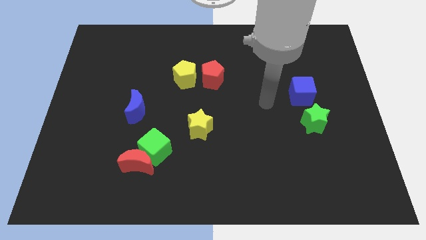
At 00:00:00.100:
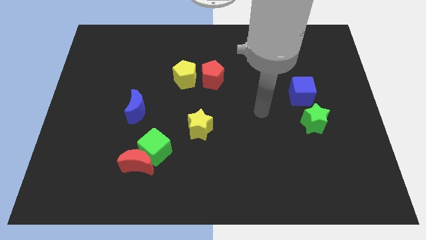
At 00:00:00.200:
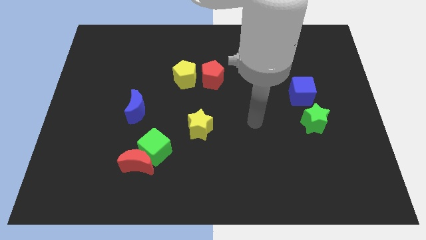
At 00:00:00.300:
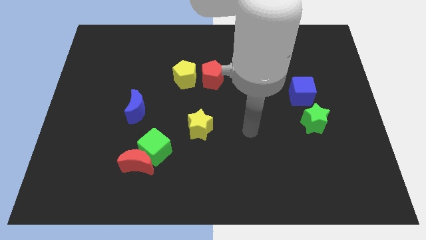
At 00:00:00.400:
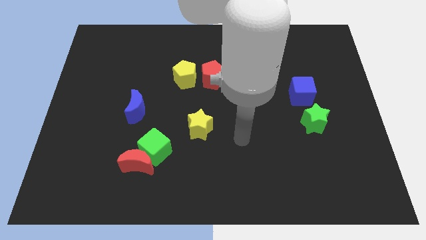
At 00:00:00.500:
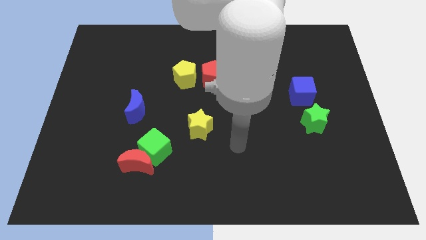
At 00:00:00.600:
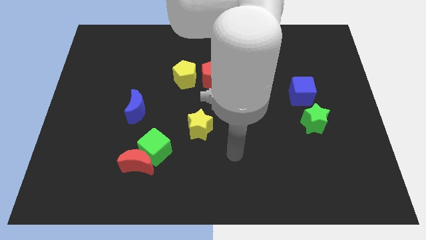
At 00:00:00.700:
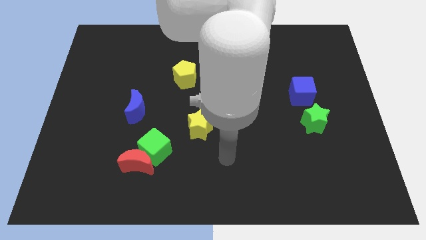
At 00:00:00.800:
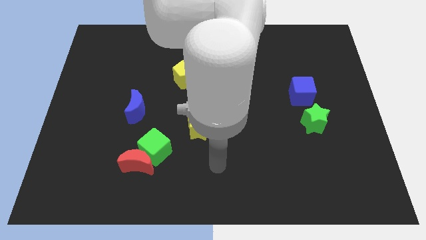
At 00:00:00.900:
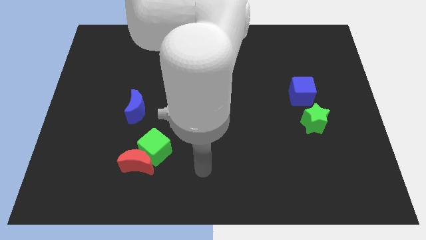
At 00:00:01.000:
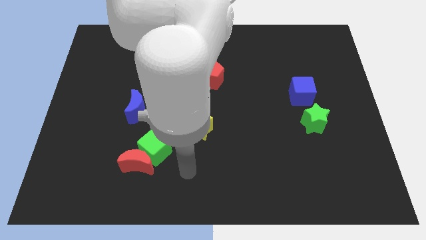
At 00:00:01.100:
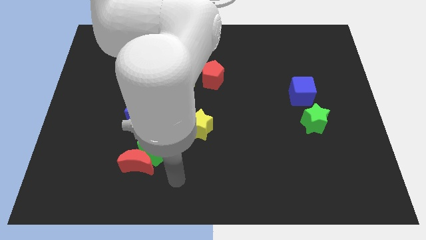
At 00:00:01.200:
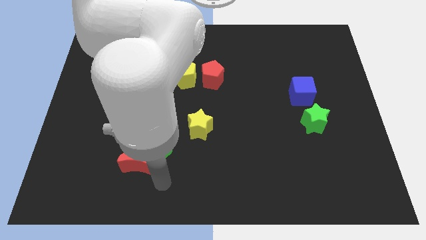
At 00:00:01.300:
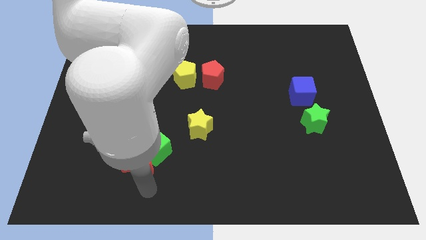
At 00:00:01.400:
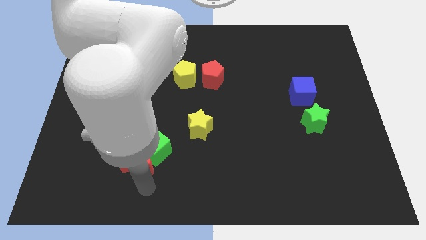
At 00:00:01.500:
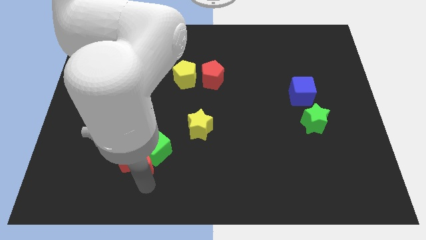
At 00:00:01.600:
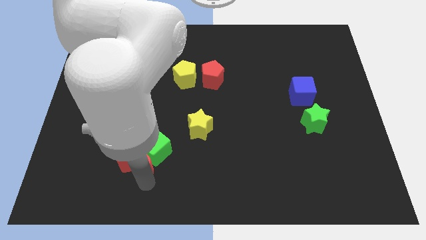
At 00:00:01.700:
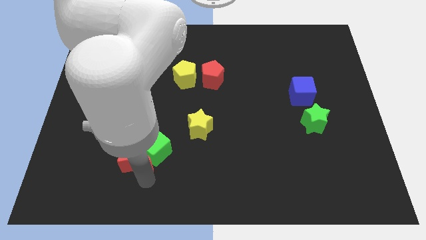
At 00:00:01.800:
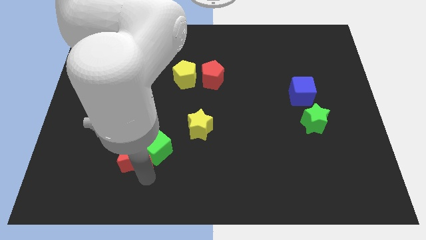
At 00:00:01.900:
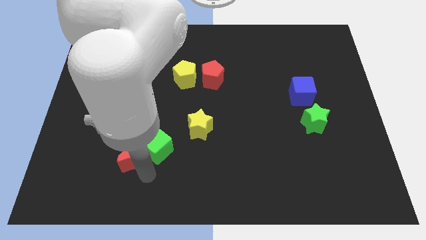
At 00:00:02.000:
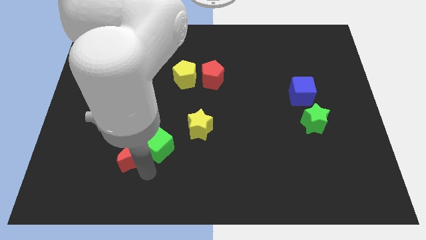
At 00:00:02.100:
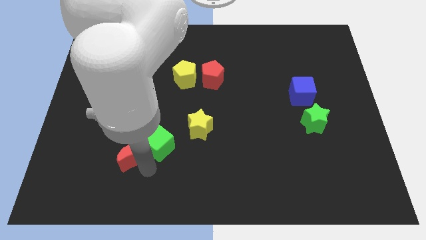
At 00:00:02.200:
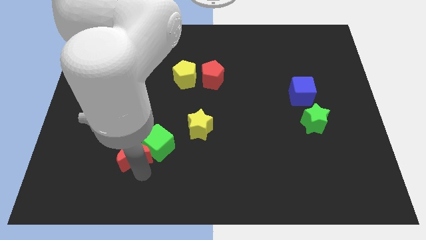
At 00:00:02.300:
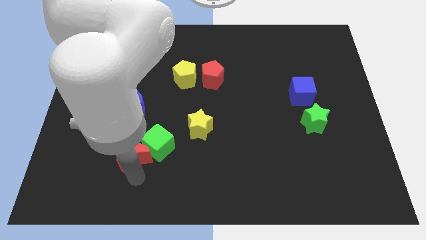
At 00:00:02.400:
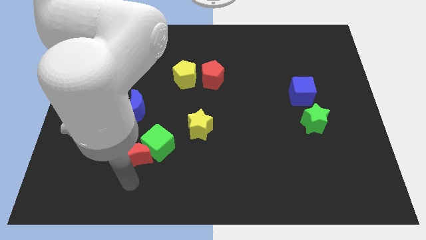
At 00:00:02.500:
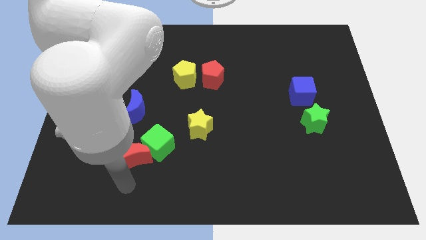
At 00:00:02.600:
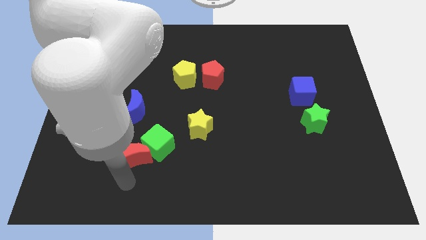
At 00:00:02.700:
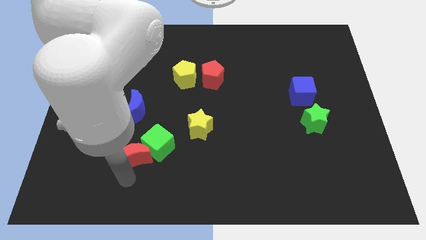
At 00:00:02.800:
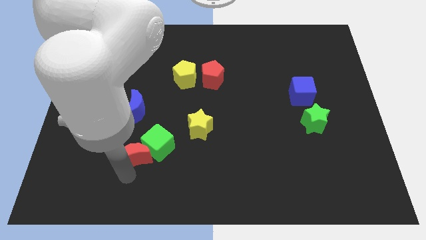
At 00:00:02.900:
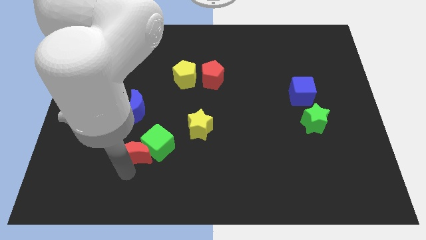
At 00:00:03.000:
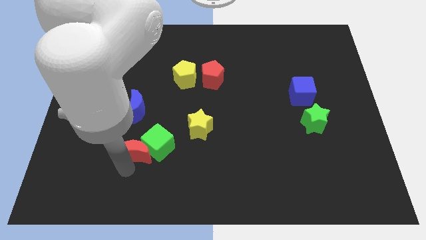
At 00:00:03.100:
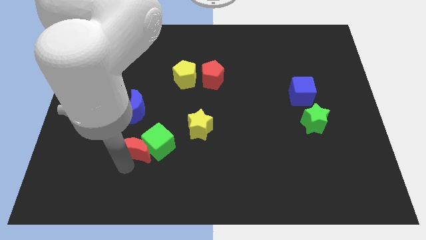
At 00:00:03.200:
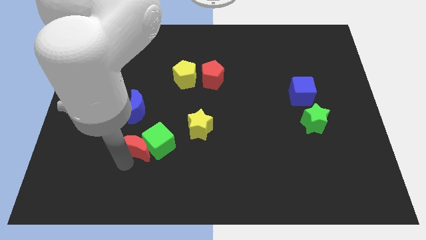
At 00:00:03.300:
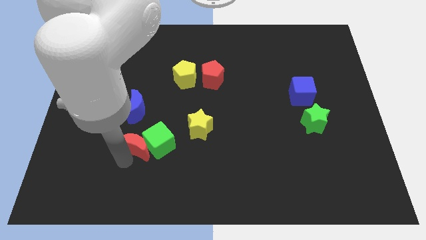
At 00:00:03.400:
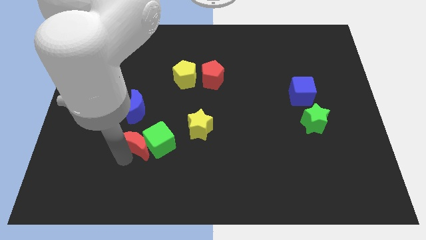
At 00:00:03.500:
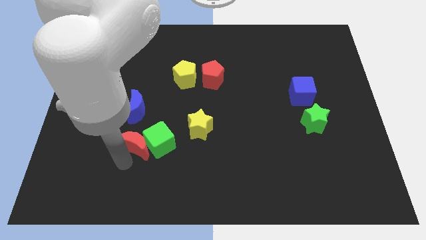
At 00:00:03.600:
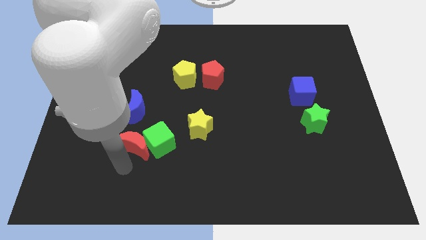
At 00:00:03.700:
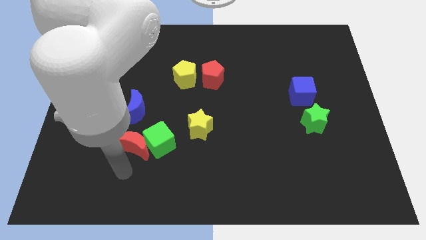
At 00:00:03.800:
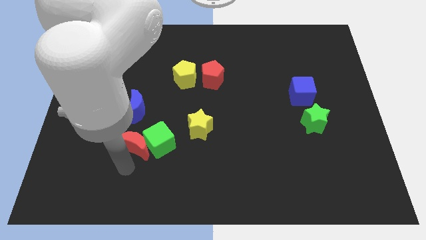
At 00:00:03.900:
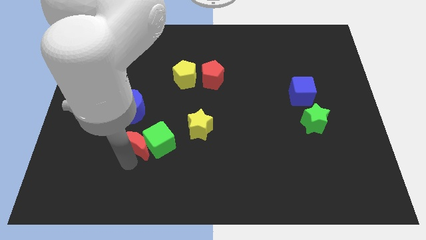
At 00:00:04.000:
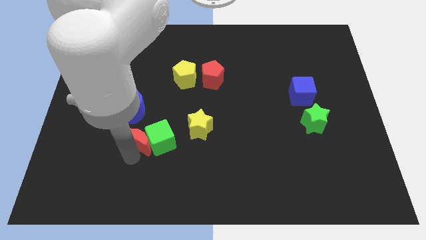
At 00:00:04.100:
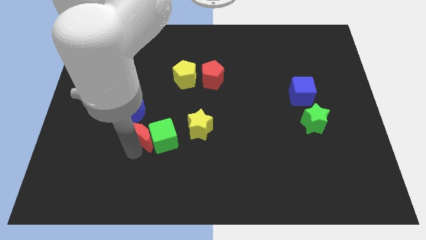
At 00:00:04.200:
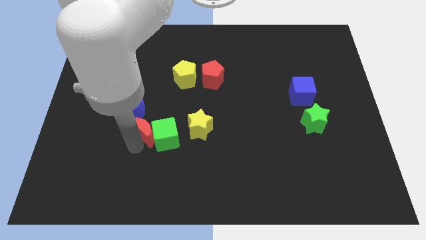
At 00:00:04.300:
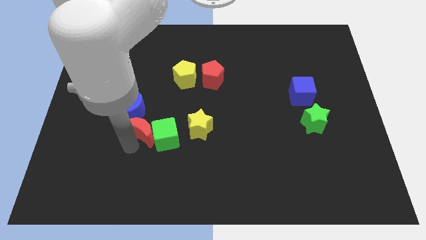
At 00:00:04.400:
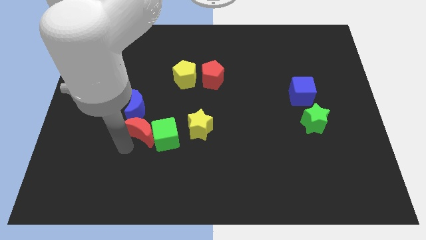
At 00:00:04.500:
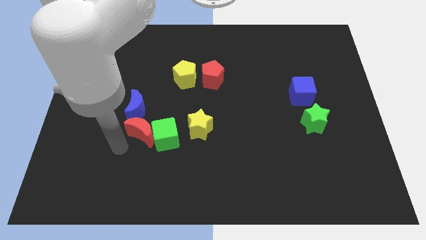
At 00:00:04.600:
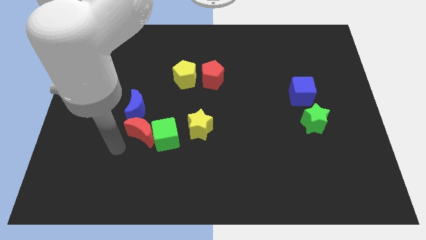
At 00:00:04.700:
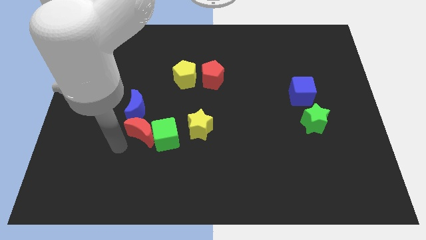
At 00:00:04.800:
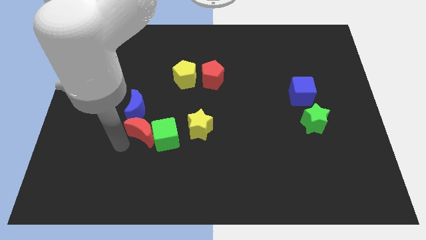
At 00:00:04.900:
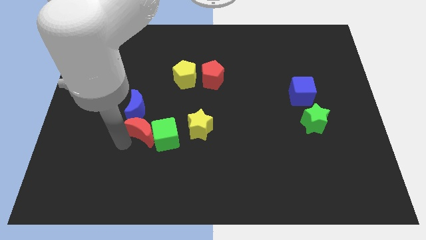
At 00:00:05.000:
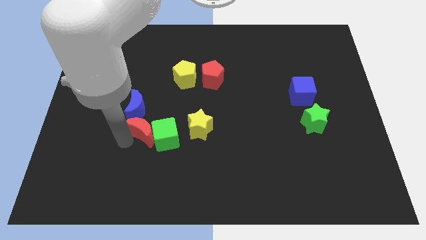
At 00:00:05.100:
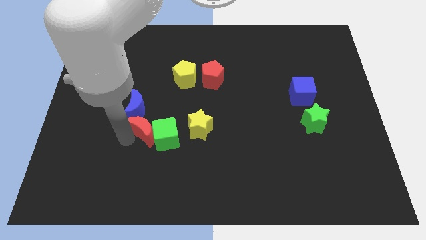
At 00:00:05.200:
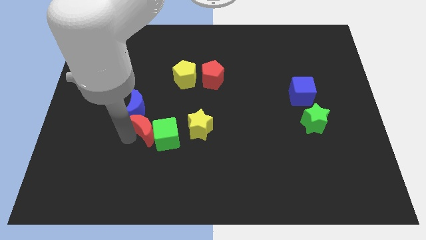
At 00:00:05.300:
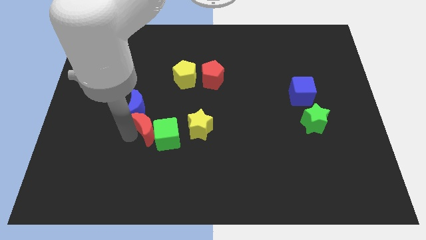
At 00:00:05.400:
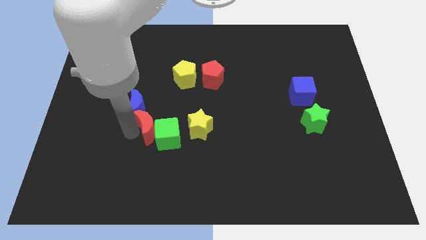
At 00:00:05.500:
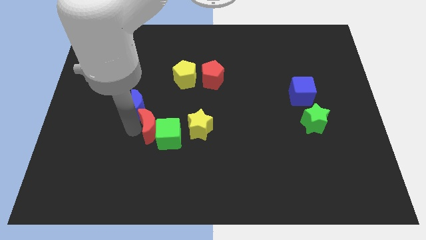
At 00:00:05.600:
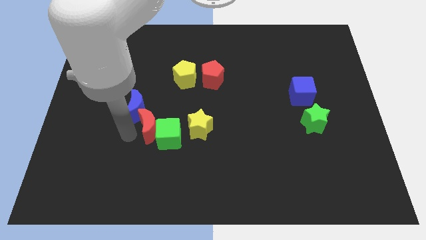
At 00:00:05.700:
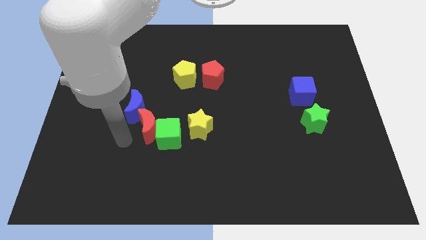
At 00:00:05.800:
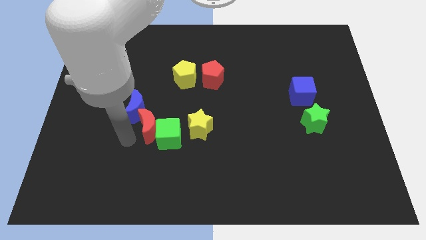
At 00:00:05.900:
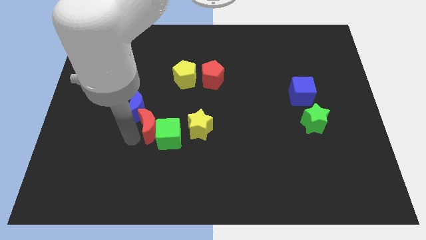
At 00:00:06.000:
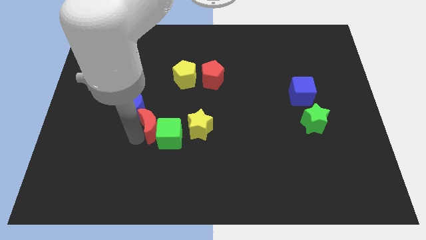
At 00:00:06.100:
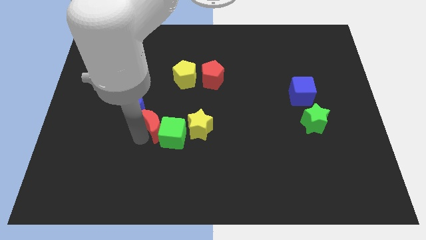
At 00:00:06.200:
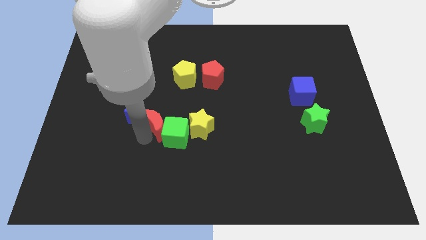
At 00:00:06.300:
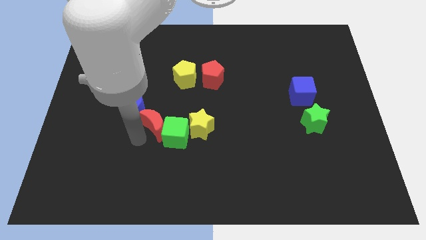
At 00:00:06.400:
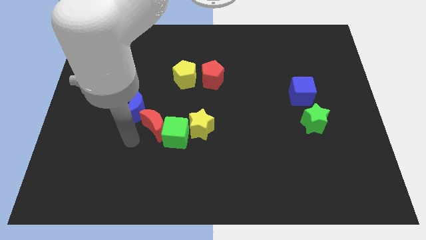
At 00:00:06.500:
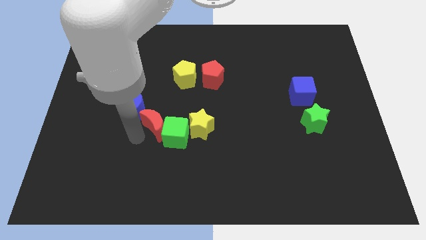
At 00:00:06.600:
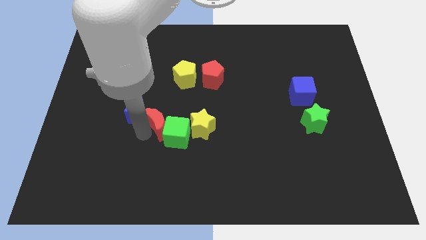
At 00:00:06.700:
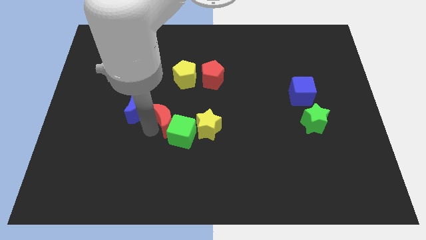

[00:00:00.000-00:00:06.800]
put the red moon below the yellow pentagon

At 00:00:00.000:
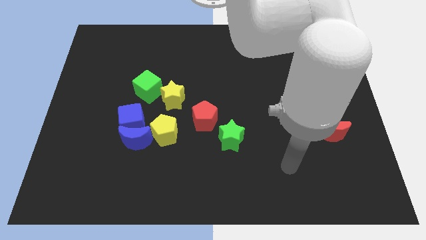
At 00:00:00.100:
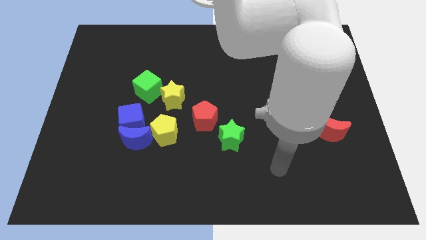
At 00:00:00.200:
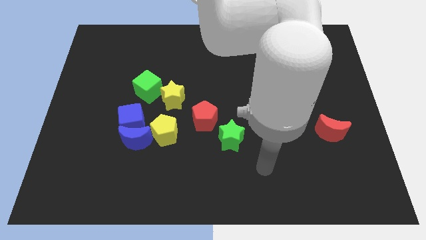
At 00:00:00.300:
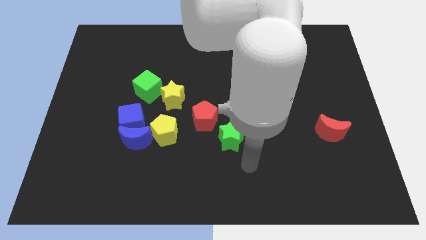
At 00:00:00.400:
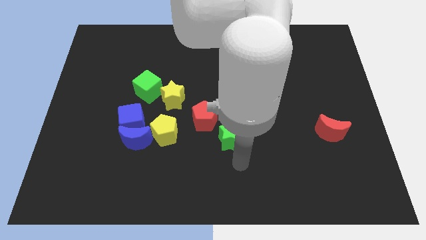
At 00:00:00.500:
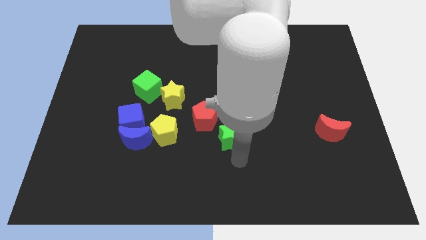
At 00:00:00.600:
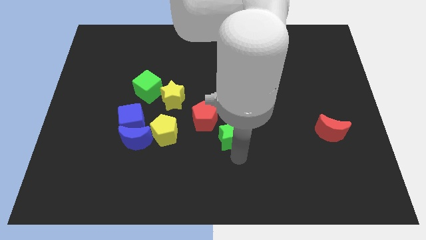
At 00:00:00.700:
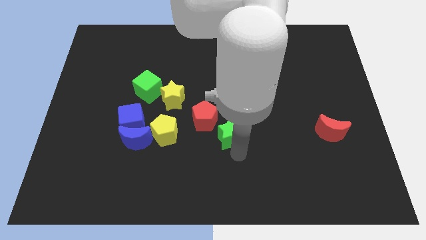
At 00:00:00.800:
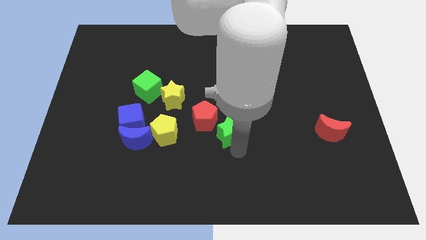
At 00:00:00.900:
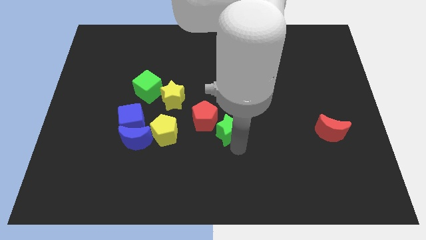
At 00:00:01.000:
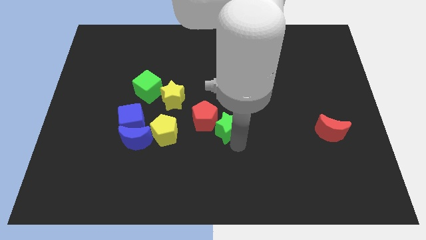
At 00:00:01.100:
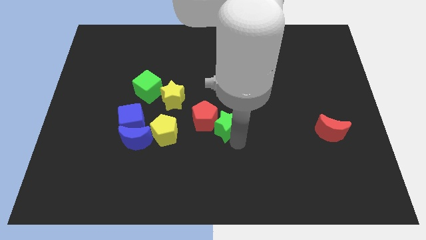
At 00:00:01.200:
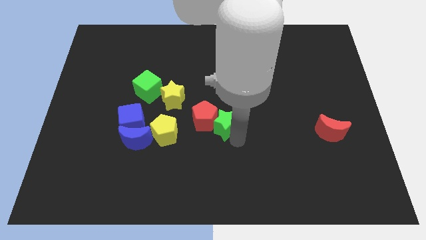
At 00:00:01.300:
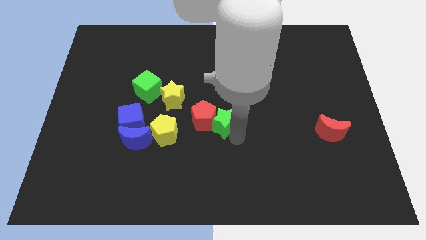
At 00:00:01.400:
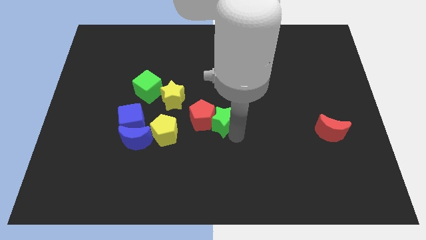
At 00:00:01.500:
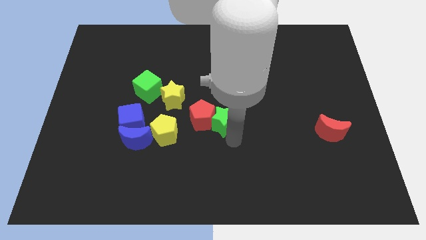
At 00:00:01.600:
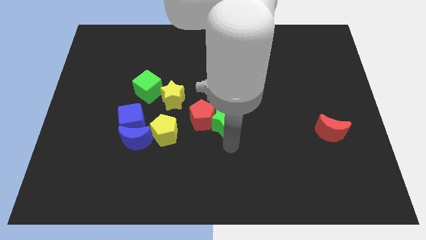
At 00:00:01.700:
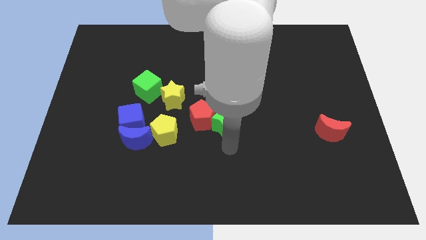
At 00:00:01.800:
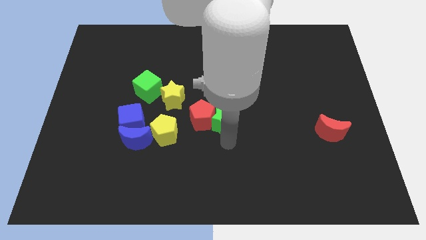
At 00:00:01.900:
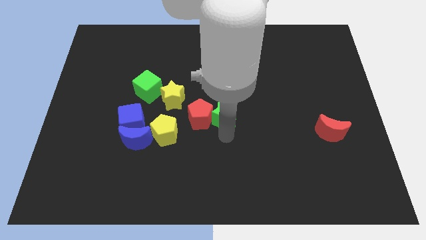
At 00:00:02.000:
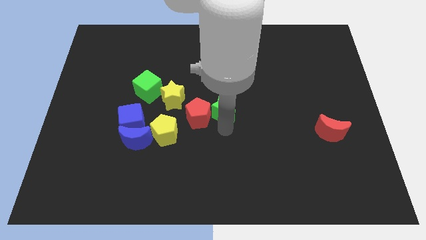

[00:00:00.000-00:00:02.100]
push the green star right of the yellow star
